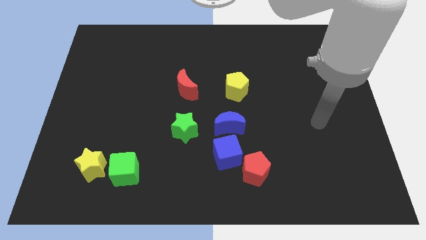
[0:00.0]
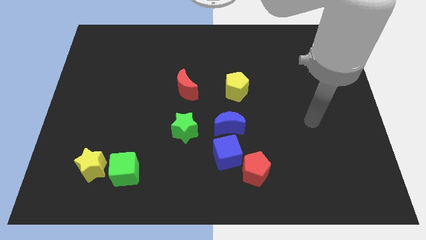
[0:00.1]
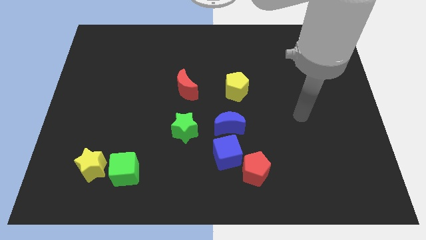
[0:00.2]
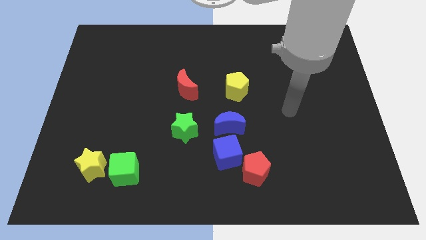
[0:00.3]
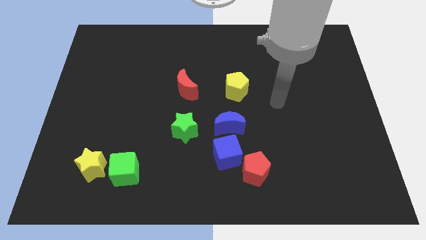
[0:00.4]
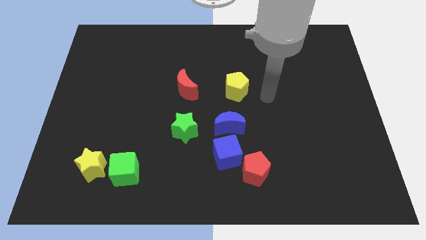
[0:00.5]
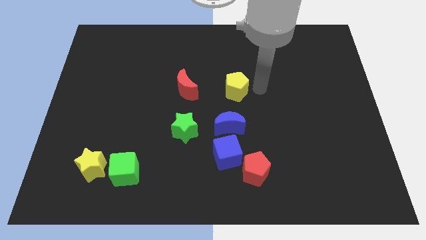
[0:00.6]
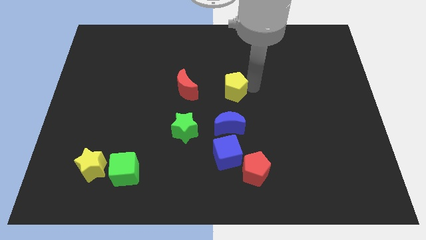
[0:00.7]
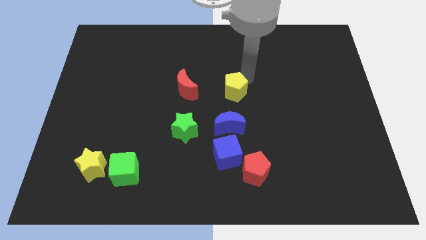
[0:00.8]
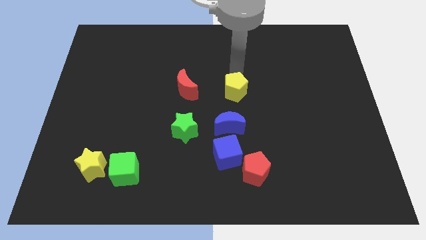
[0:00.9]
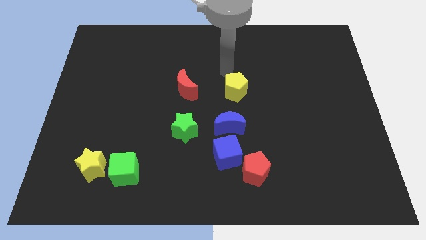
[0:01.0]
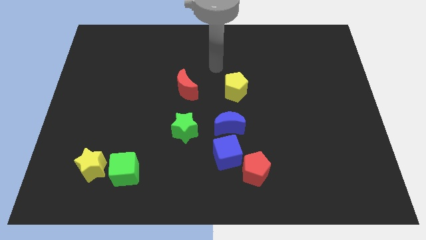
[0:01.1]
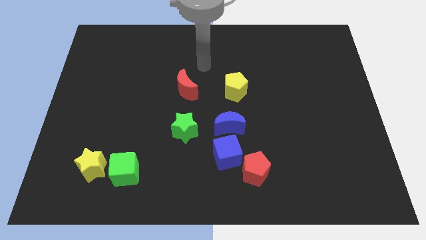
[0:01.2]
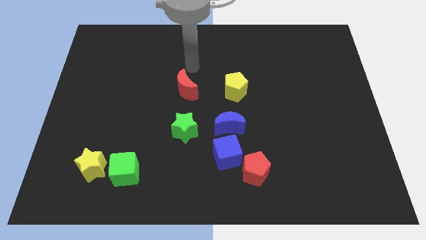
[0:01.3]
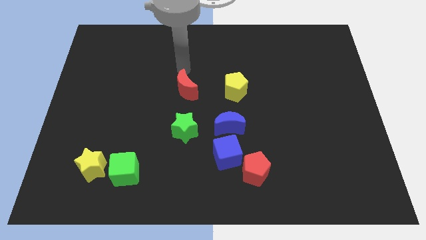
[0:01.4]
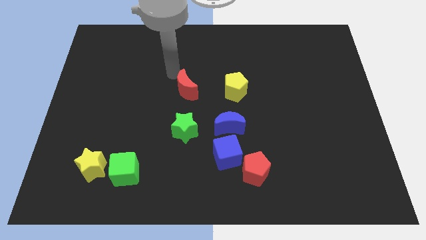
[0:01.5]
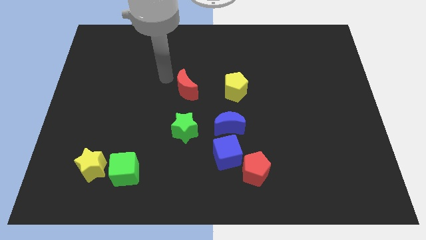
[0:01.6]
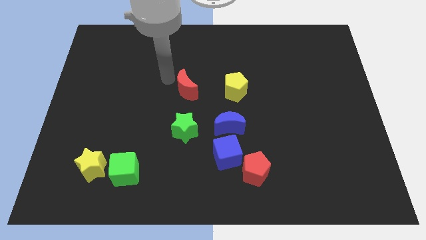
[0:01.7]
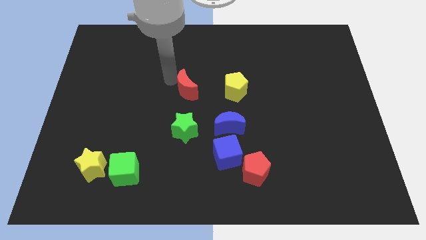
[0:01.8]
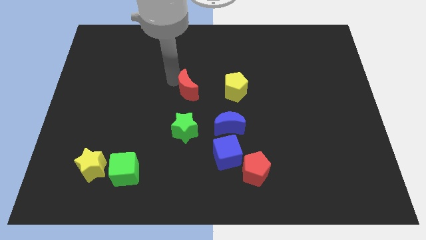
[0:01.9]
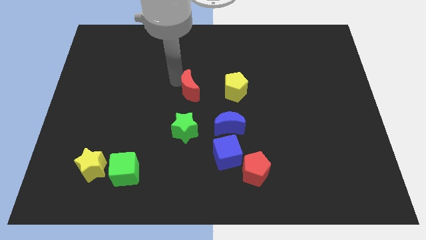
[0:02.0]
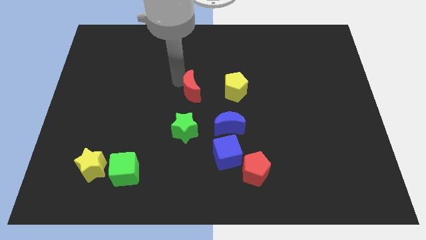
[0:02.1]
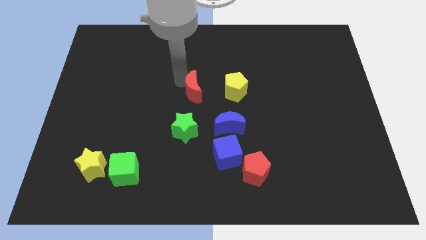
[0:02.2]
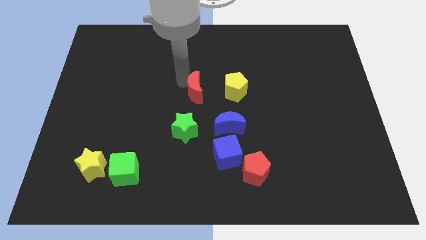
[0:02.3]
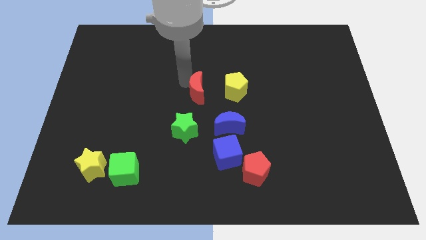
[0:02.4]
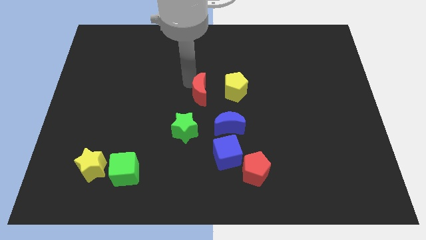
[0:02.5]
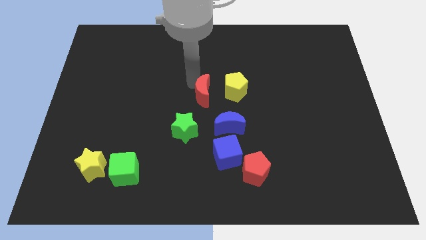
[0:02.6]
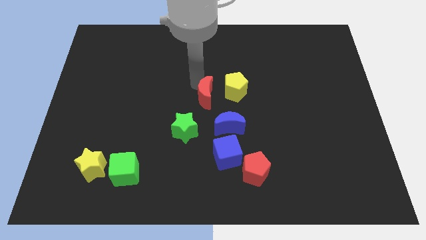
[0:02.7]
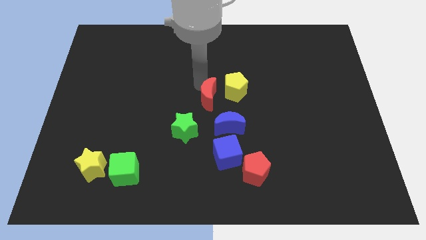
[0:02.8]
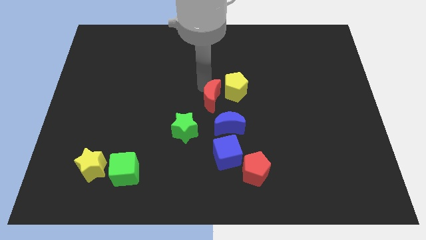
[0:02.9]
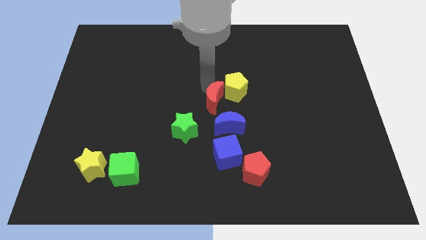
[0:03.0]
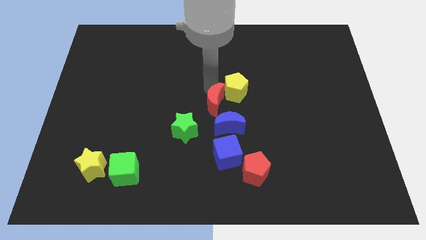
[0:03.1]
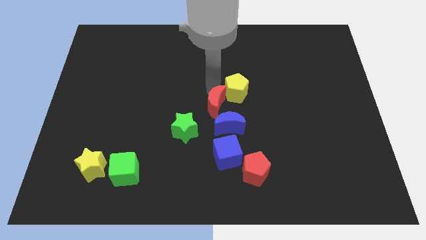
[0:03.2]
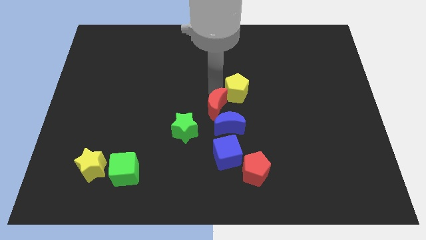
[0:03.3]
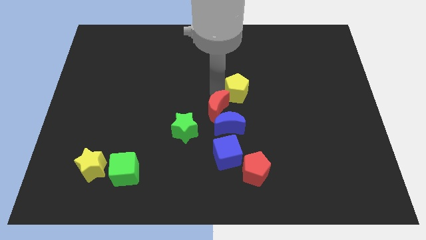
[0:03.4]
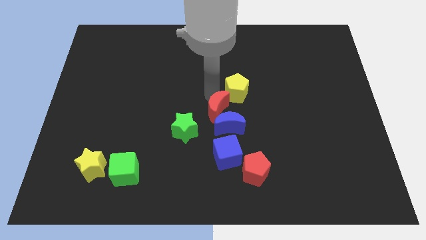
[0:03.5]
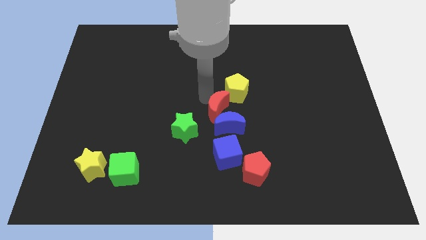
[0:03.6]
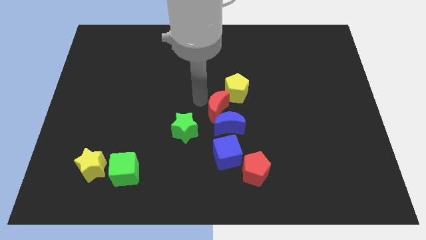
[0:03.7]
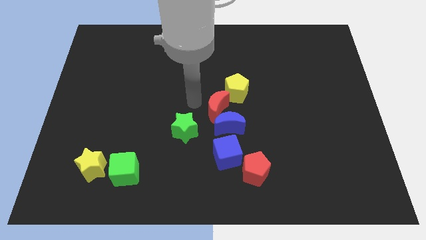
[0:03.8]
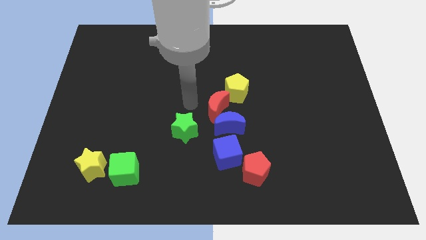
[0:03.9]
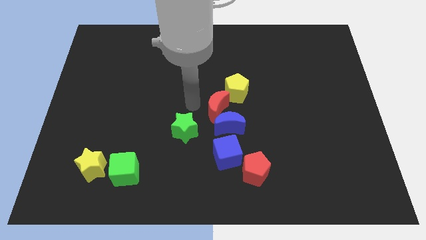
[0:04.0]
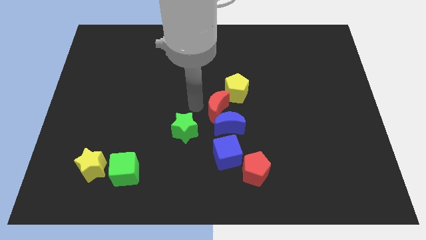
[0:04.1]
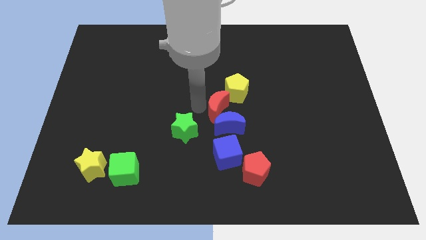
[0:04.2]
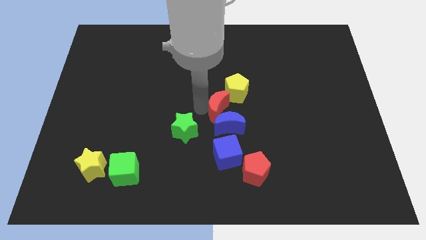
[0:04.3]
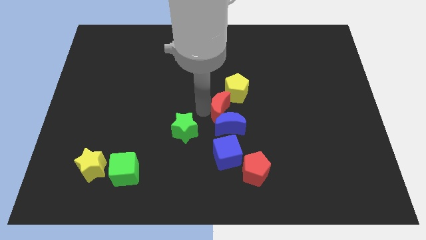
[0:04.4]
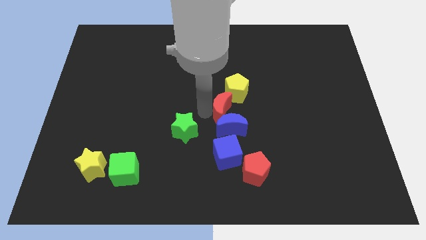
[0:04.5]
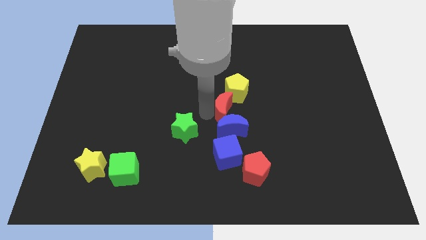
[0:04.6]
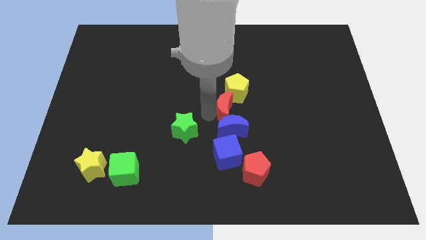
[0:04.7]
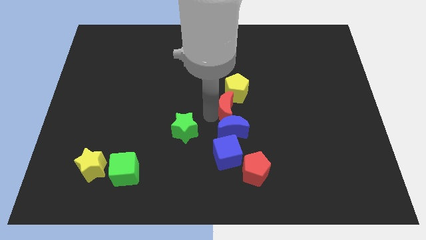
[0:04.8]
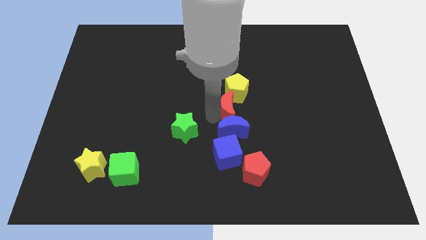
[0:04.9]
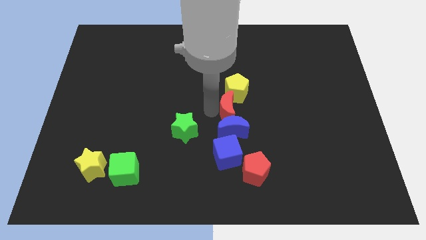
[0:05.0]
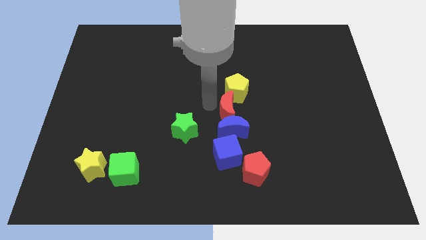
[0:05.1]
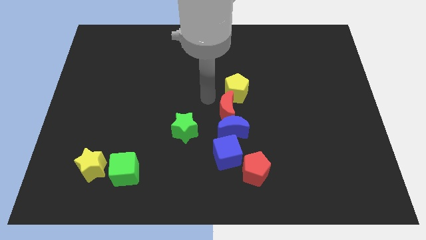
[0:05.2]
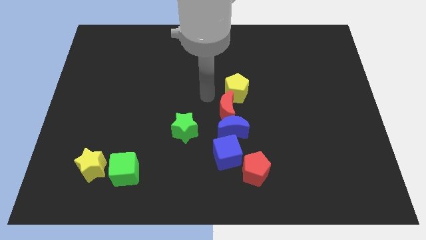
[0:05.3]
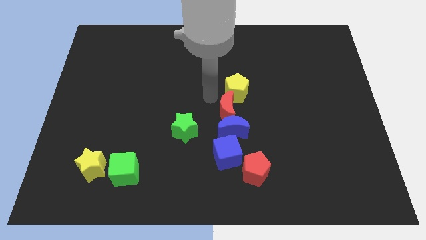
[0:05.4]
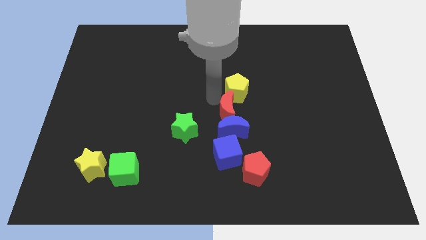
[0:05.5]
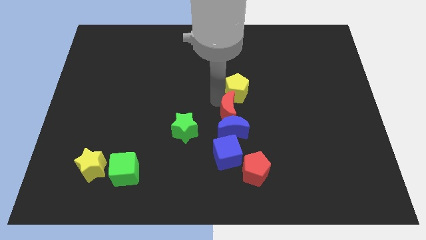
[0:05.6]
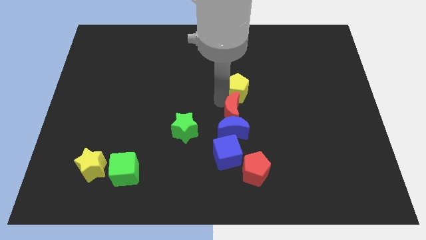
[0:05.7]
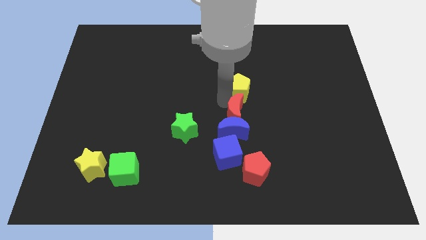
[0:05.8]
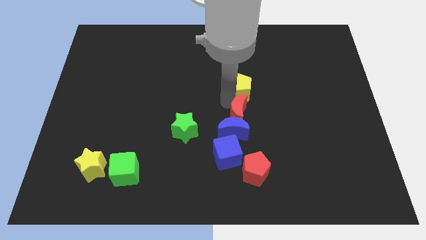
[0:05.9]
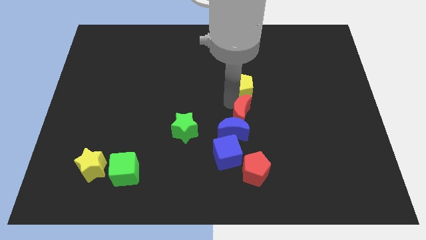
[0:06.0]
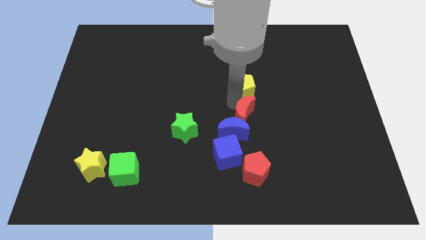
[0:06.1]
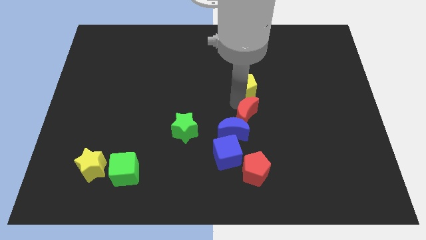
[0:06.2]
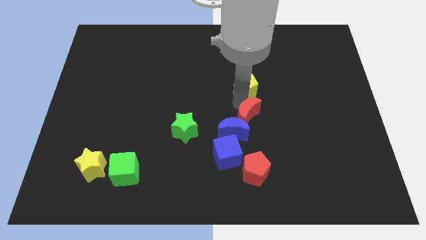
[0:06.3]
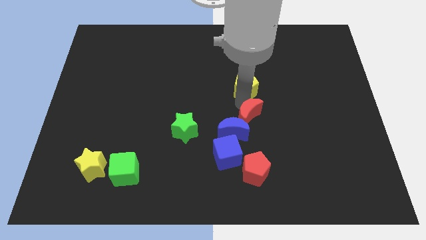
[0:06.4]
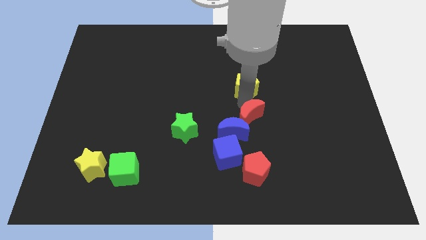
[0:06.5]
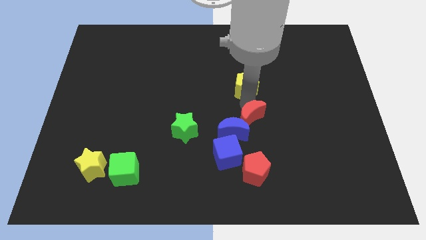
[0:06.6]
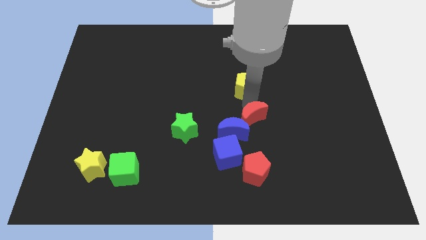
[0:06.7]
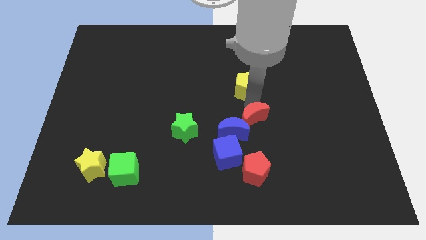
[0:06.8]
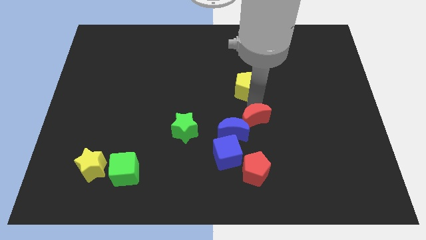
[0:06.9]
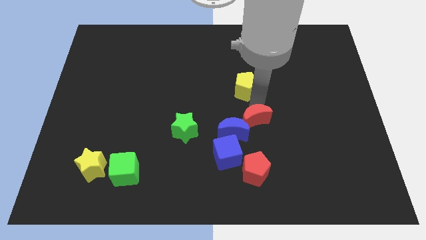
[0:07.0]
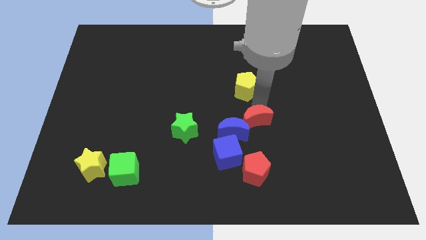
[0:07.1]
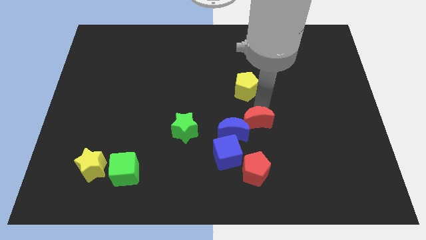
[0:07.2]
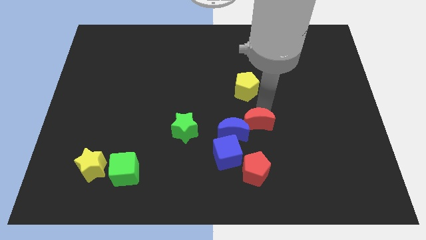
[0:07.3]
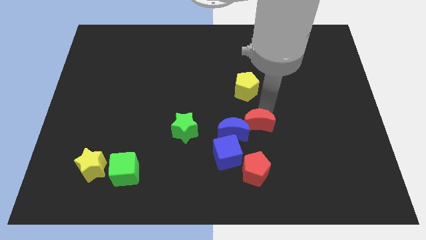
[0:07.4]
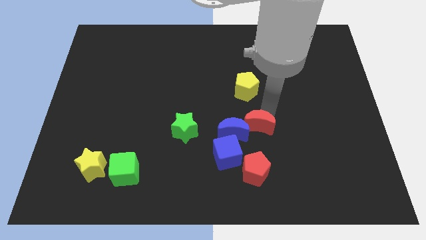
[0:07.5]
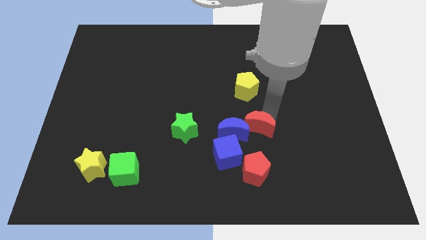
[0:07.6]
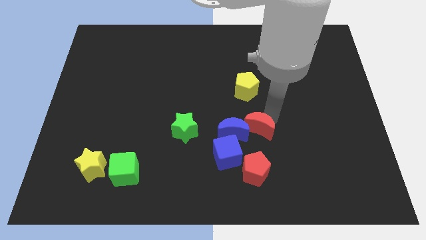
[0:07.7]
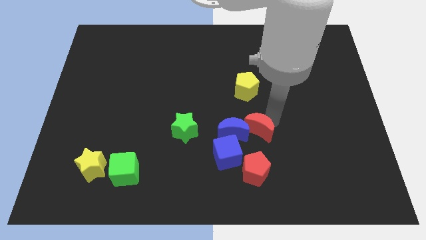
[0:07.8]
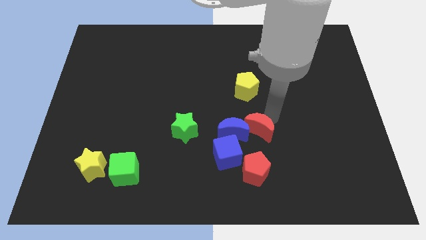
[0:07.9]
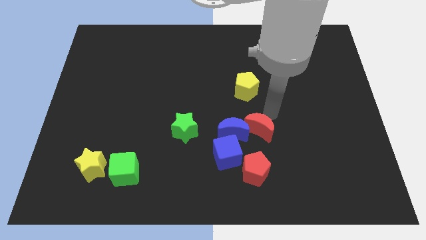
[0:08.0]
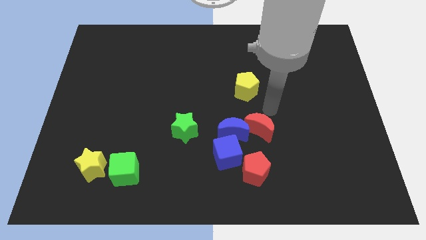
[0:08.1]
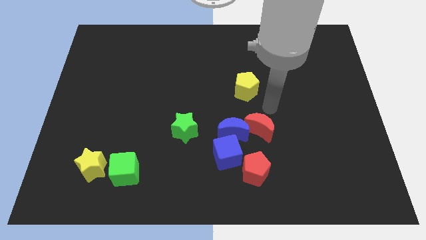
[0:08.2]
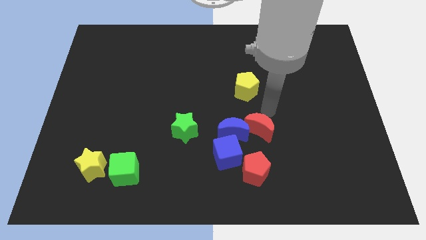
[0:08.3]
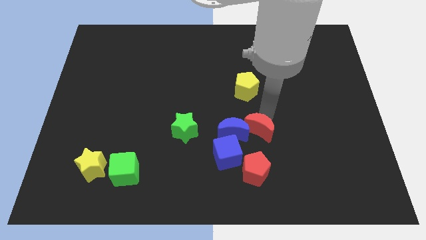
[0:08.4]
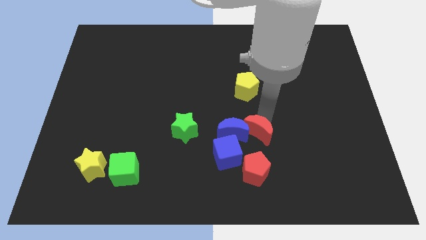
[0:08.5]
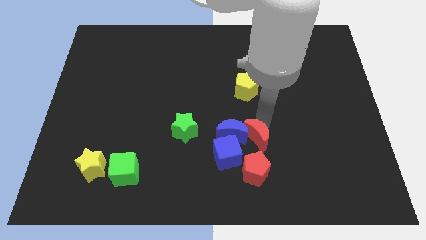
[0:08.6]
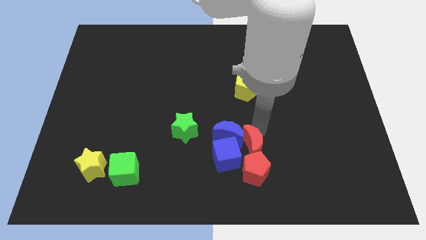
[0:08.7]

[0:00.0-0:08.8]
move the red moon towards the red pentagon
